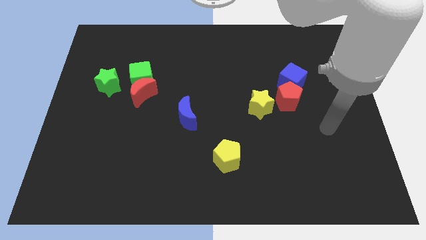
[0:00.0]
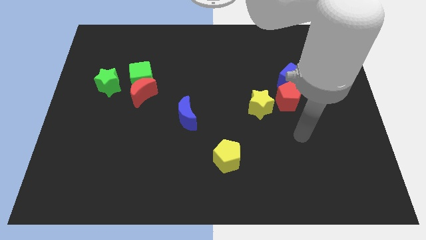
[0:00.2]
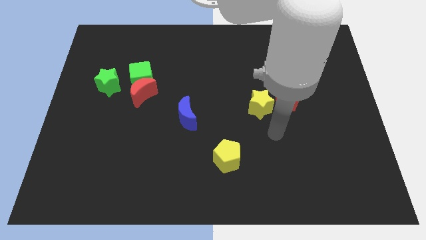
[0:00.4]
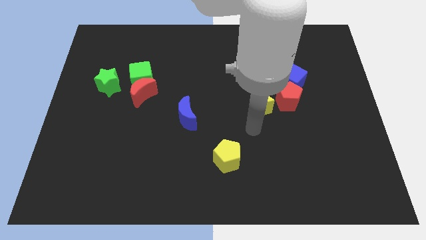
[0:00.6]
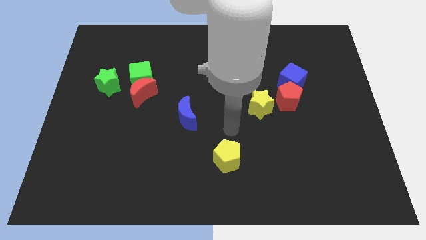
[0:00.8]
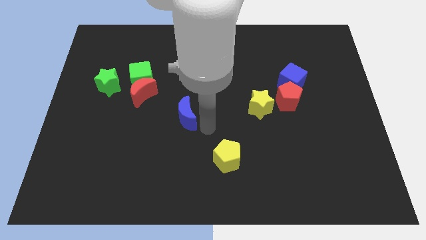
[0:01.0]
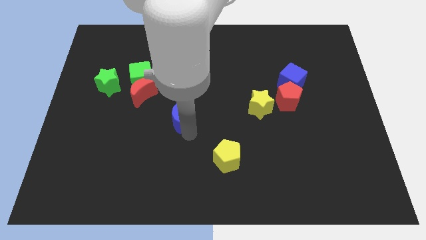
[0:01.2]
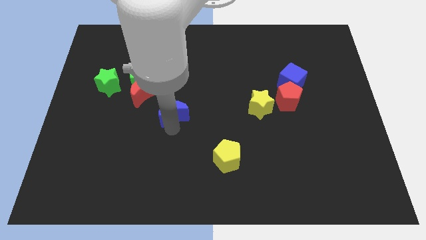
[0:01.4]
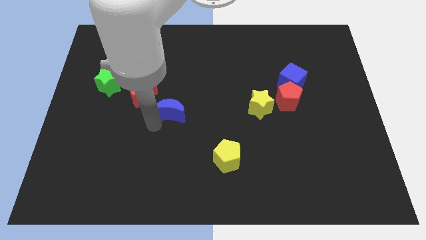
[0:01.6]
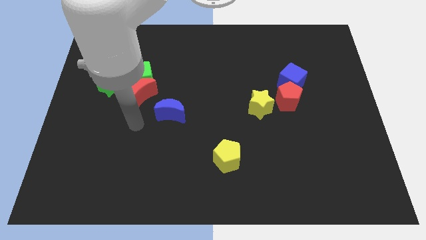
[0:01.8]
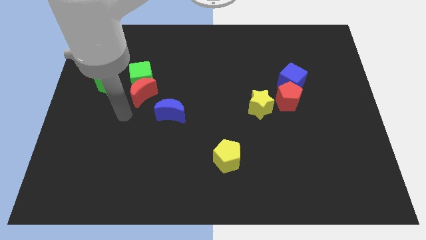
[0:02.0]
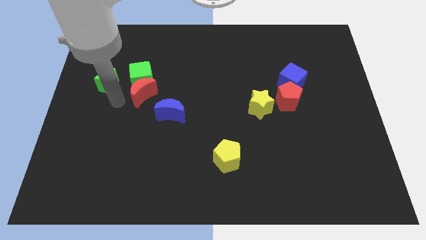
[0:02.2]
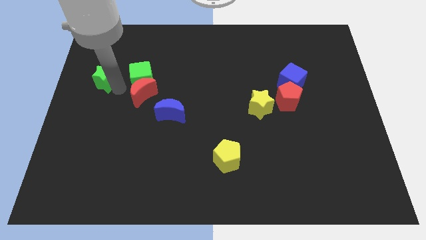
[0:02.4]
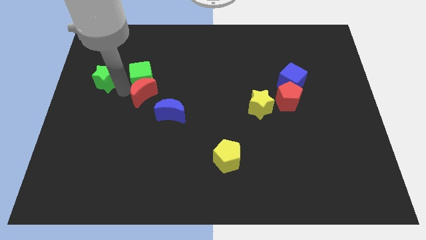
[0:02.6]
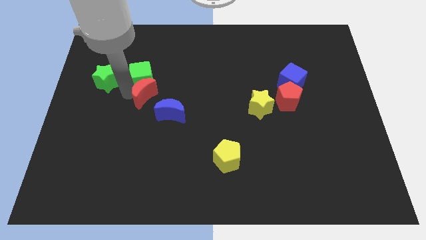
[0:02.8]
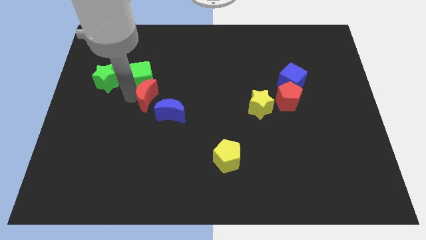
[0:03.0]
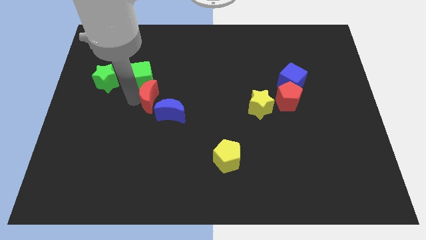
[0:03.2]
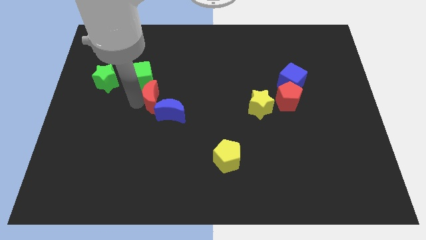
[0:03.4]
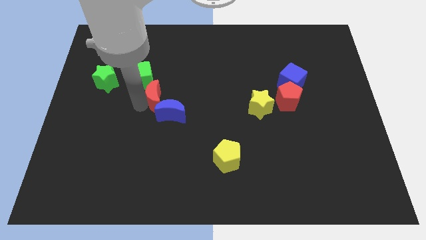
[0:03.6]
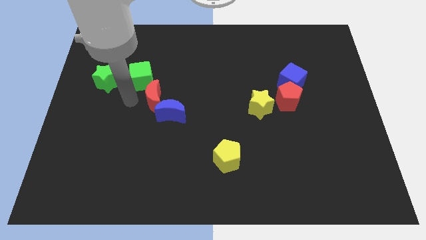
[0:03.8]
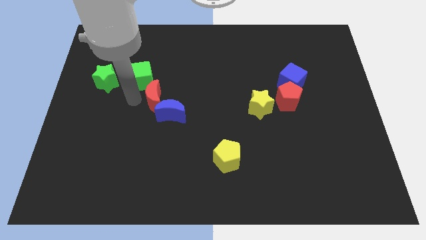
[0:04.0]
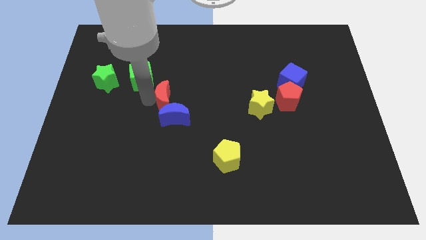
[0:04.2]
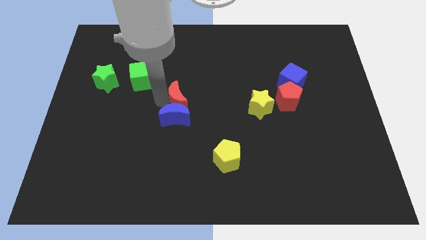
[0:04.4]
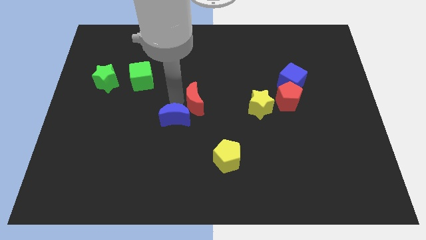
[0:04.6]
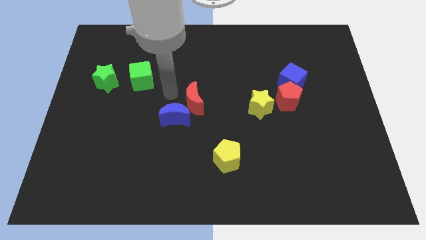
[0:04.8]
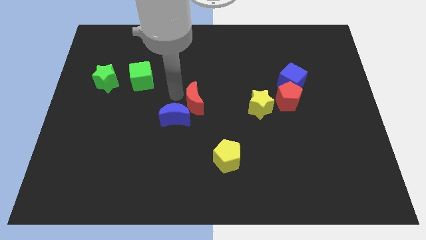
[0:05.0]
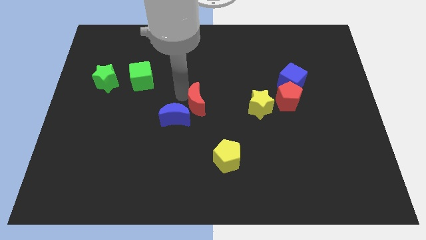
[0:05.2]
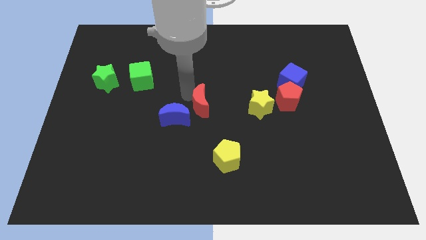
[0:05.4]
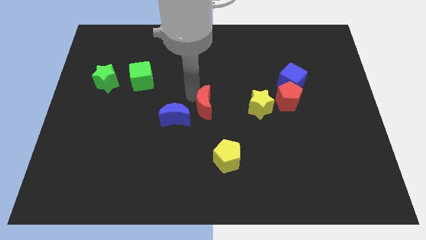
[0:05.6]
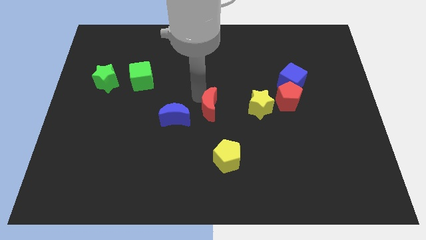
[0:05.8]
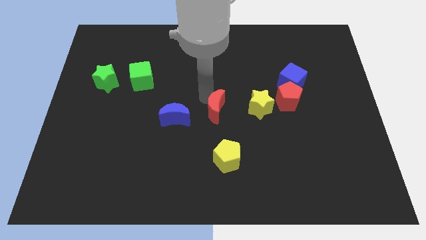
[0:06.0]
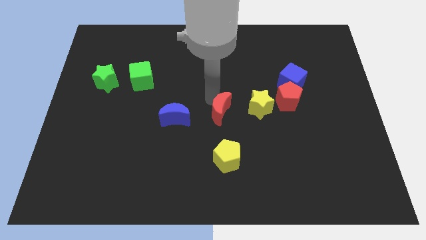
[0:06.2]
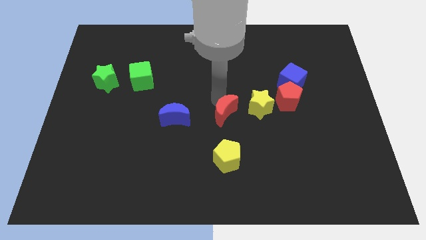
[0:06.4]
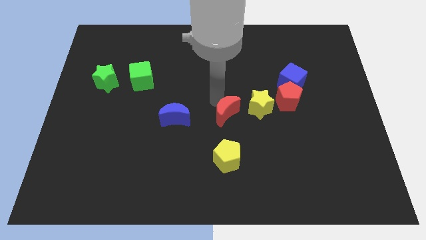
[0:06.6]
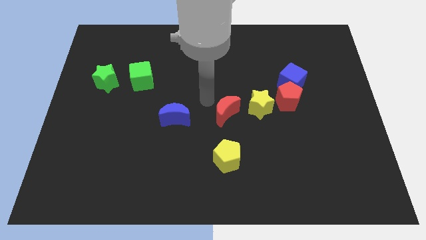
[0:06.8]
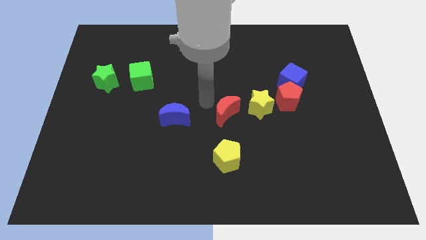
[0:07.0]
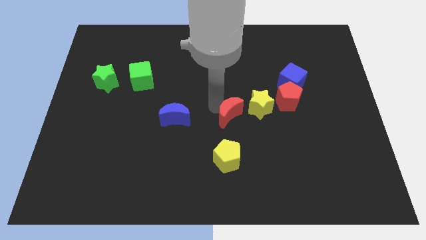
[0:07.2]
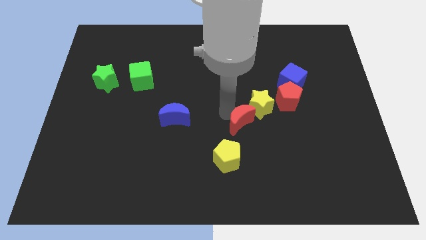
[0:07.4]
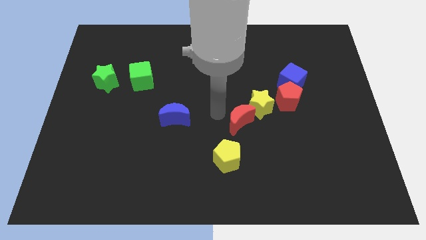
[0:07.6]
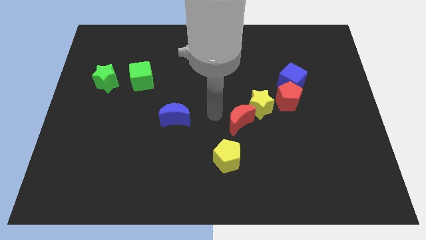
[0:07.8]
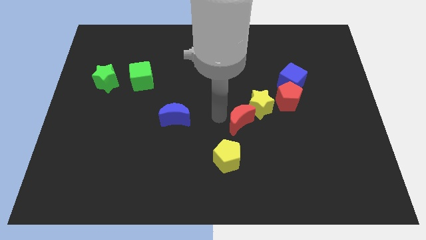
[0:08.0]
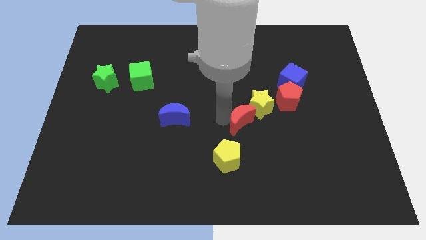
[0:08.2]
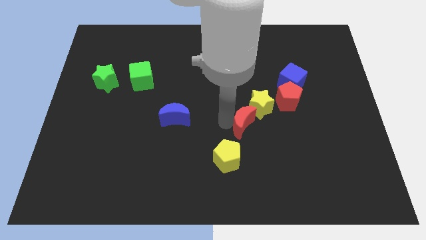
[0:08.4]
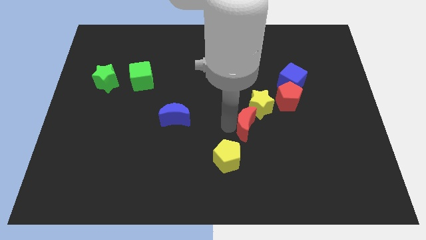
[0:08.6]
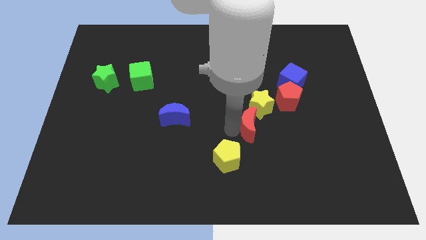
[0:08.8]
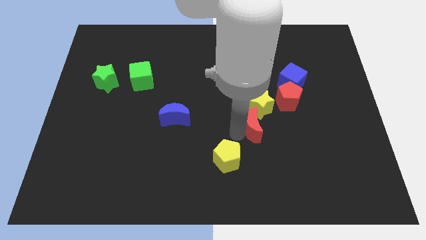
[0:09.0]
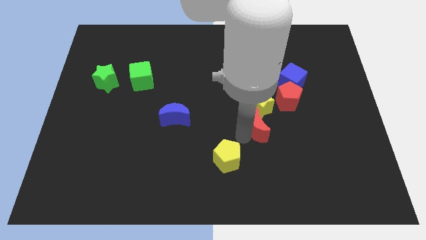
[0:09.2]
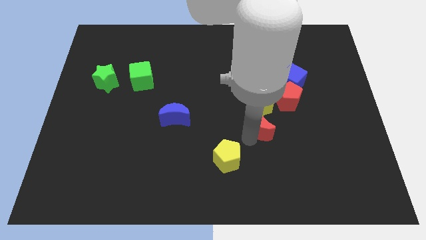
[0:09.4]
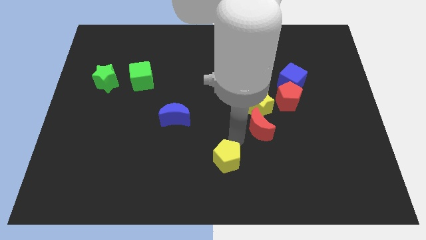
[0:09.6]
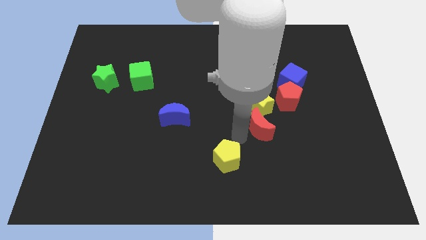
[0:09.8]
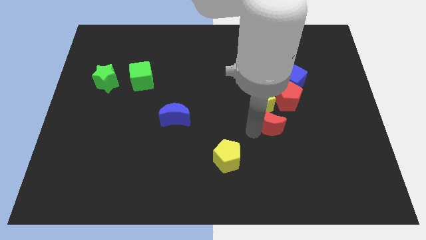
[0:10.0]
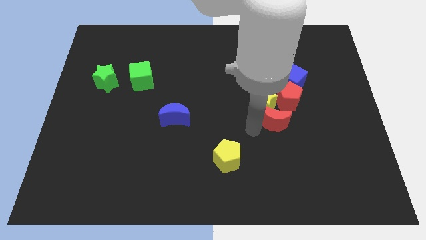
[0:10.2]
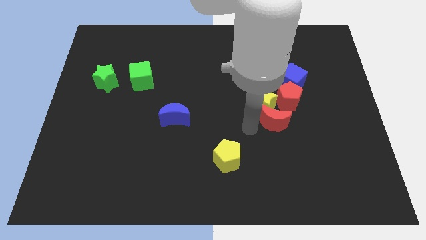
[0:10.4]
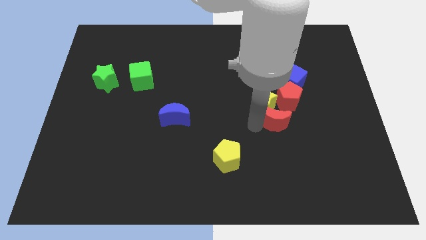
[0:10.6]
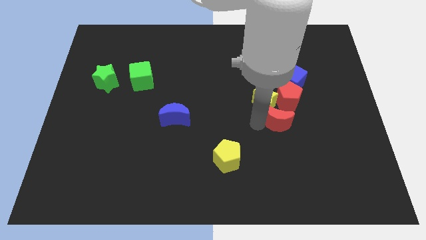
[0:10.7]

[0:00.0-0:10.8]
push the red moon to the bottom of the blue cube

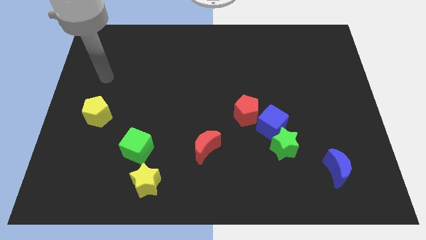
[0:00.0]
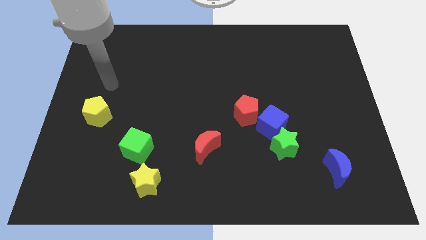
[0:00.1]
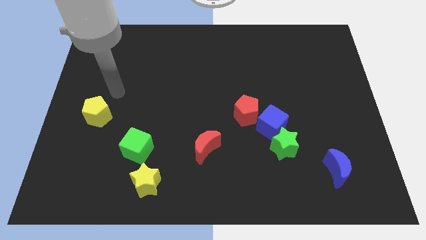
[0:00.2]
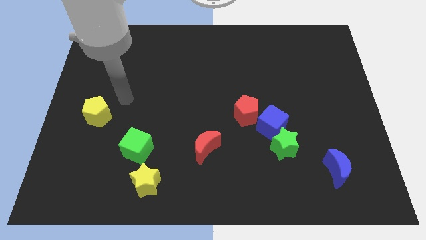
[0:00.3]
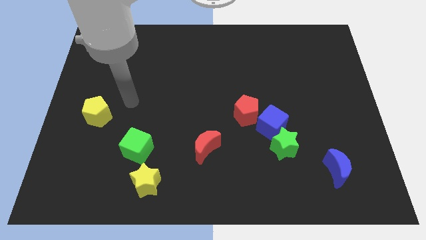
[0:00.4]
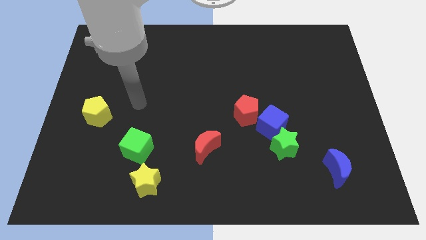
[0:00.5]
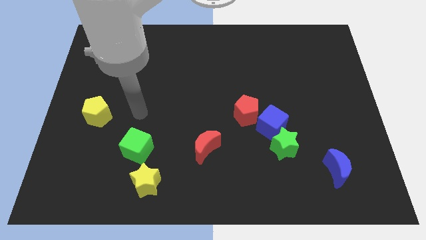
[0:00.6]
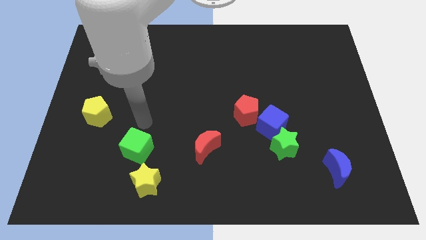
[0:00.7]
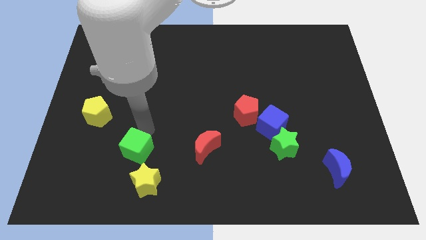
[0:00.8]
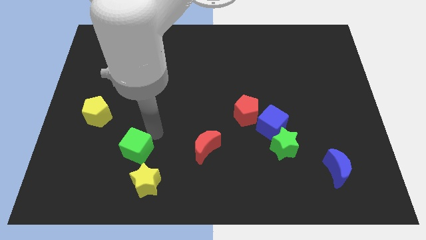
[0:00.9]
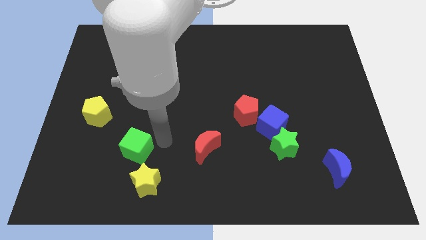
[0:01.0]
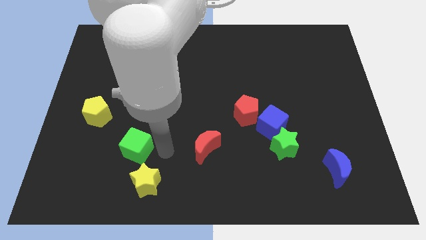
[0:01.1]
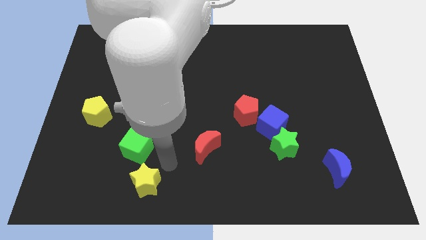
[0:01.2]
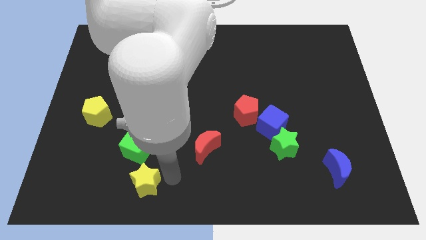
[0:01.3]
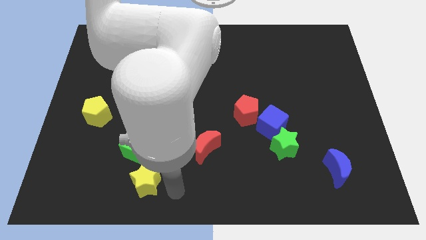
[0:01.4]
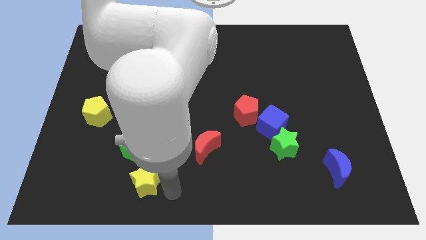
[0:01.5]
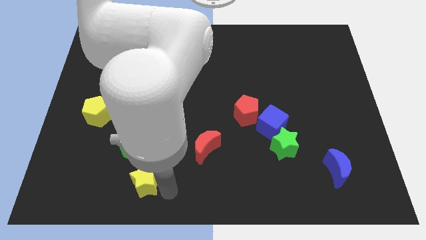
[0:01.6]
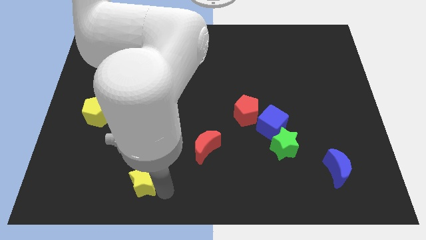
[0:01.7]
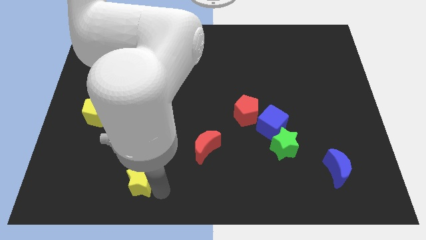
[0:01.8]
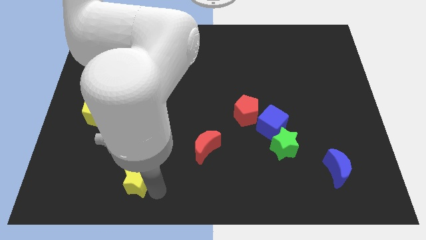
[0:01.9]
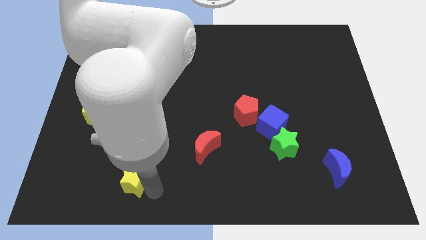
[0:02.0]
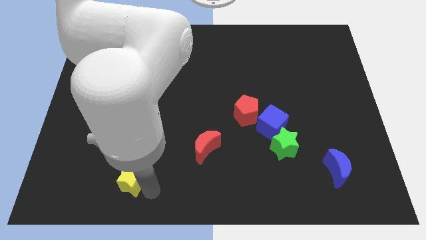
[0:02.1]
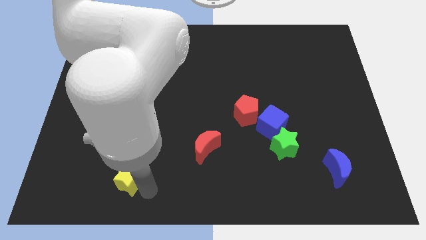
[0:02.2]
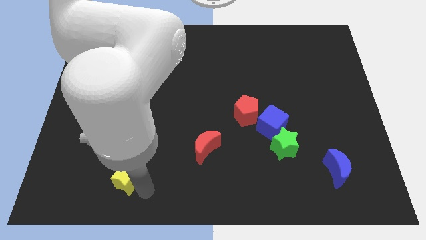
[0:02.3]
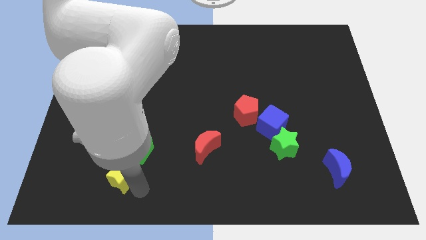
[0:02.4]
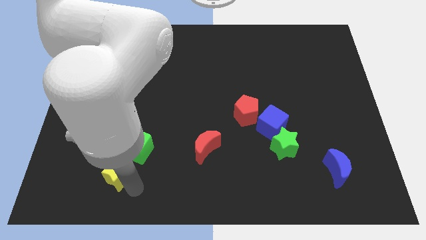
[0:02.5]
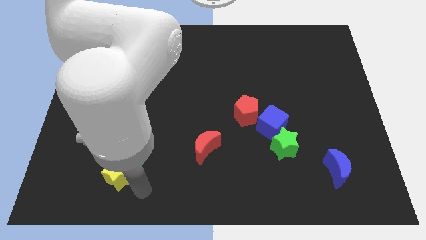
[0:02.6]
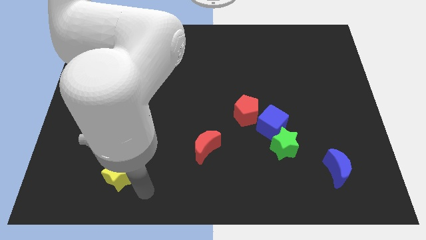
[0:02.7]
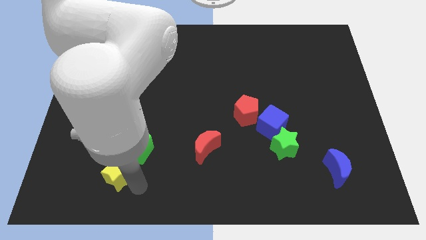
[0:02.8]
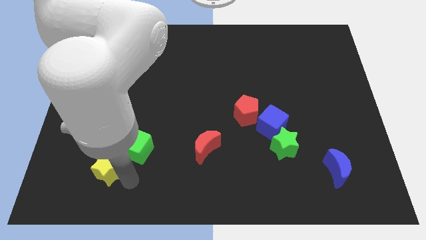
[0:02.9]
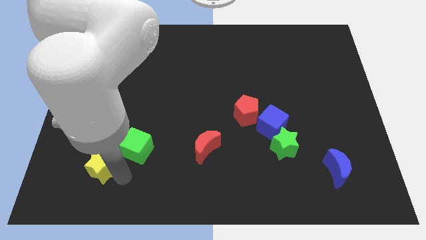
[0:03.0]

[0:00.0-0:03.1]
push the yellow star below the yellow pentagon
